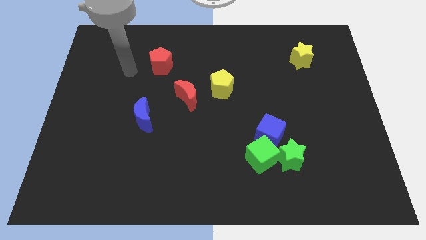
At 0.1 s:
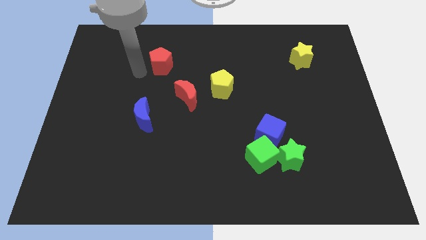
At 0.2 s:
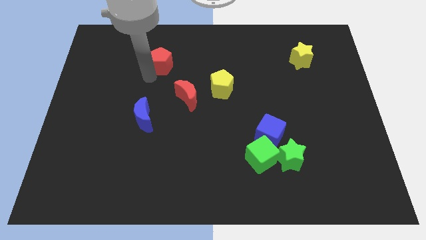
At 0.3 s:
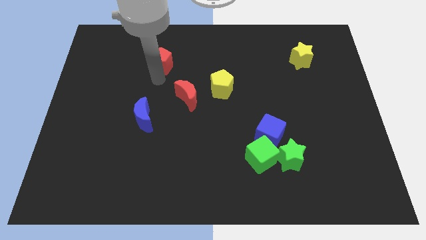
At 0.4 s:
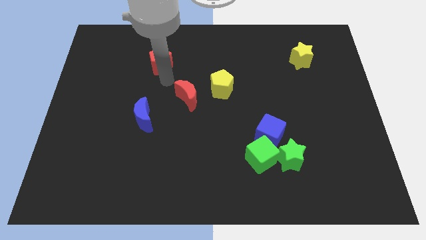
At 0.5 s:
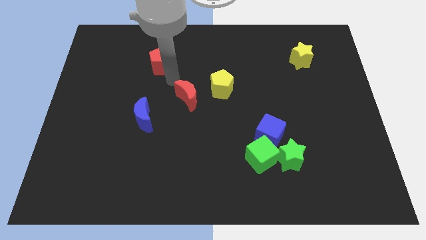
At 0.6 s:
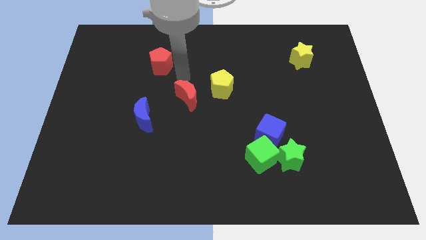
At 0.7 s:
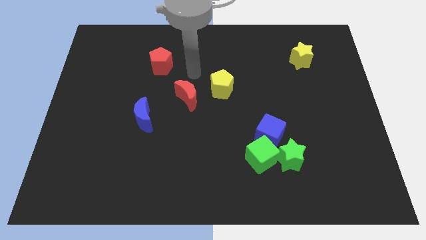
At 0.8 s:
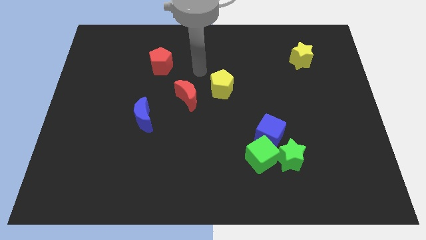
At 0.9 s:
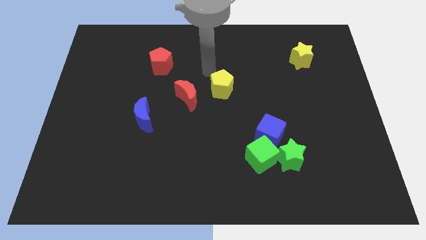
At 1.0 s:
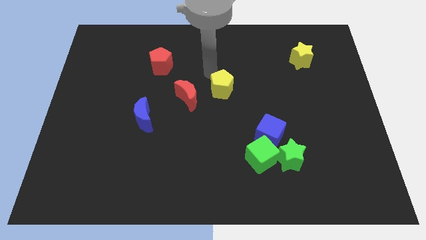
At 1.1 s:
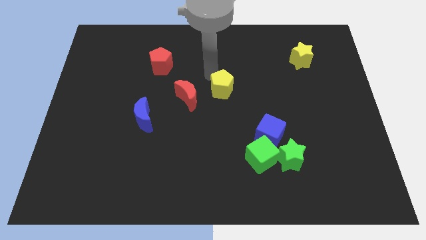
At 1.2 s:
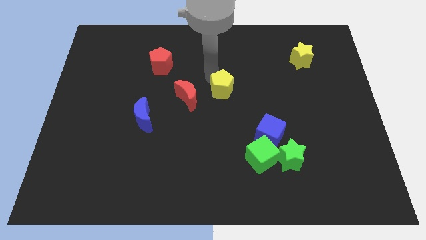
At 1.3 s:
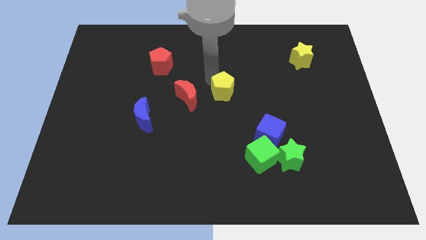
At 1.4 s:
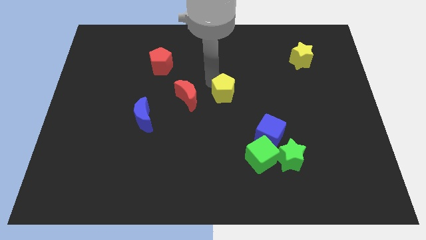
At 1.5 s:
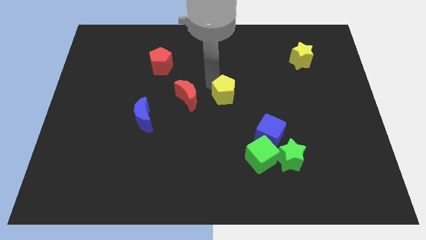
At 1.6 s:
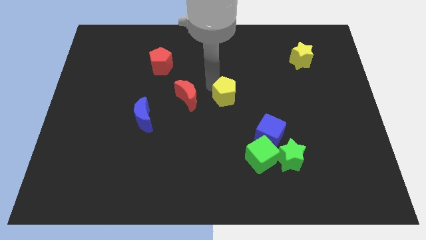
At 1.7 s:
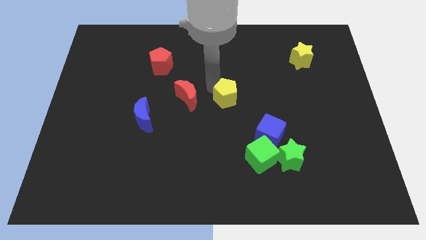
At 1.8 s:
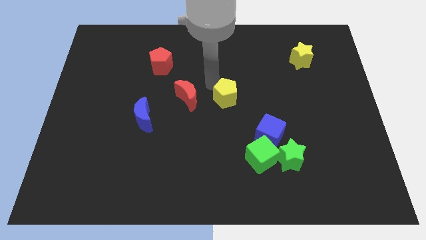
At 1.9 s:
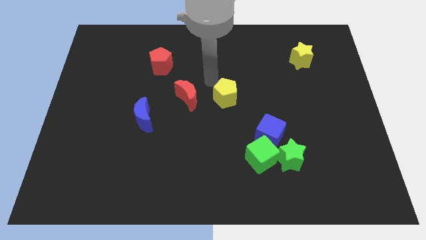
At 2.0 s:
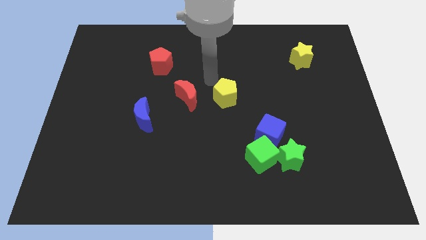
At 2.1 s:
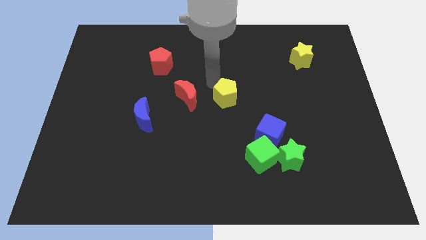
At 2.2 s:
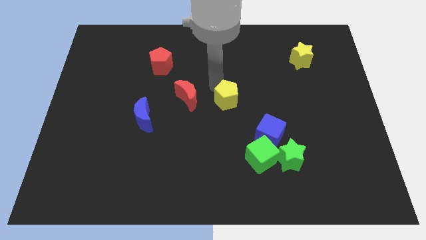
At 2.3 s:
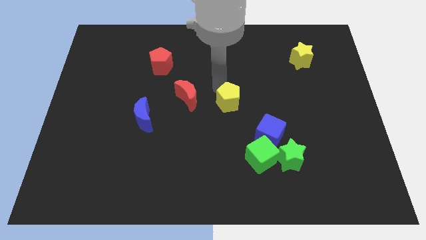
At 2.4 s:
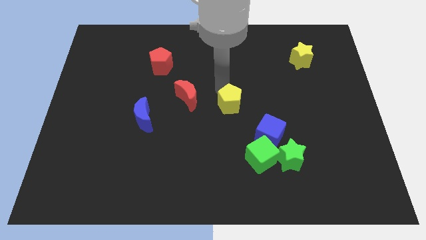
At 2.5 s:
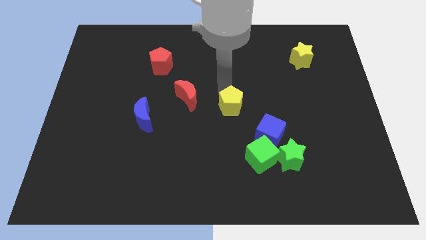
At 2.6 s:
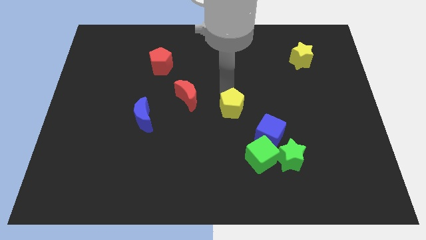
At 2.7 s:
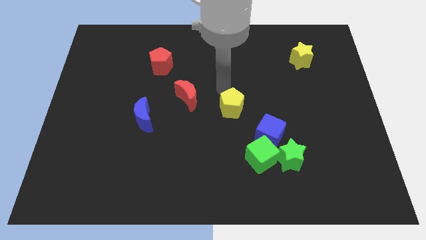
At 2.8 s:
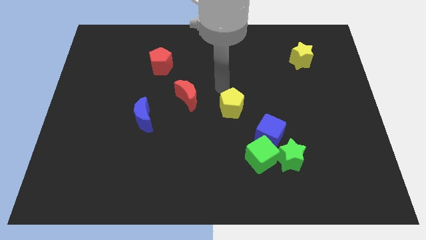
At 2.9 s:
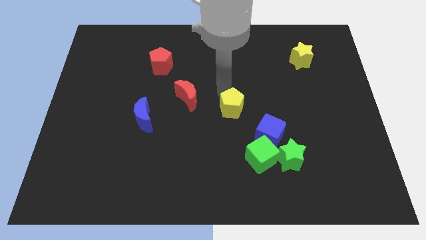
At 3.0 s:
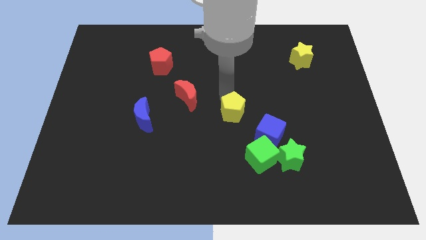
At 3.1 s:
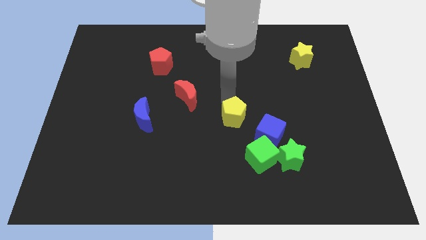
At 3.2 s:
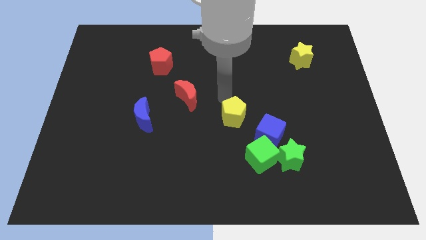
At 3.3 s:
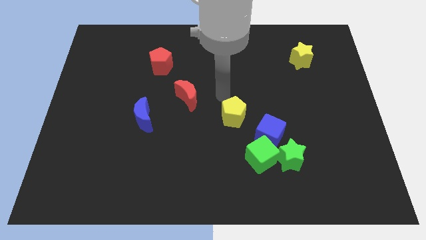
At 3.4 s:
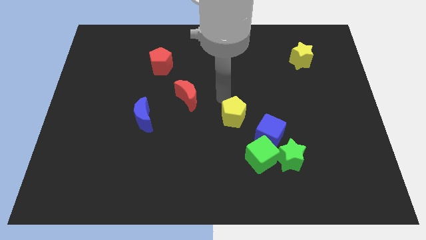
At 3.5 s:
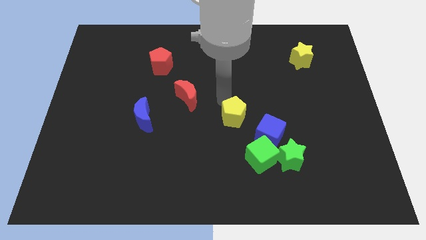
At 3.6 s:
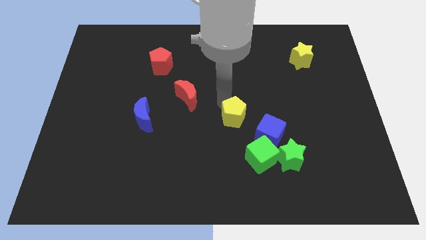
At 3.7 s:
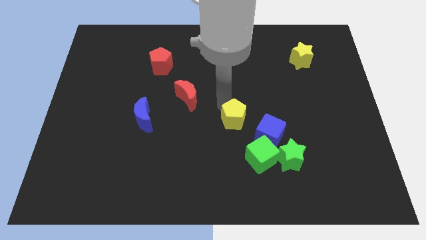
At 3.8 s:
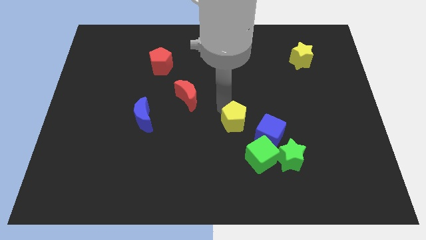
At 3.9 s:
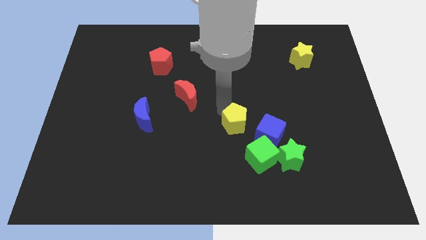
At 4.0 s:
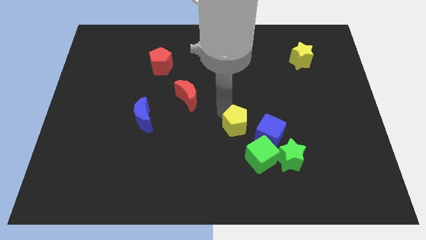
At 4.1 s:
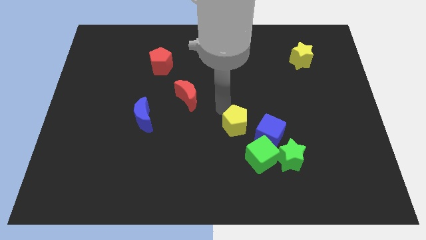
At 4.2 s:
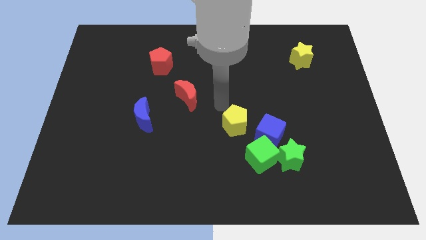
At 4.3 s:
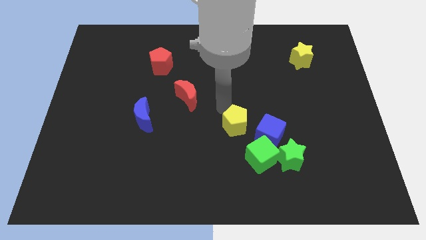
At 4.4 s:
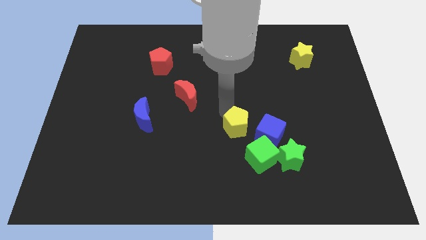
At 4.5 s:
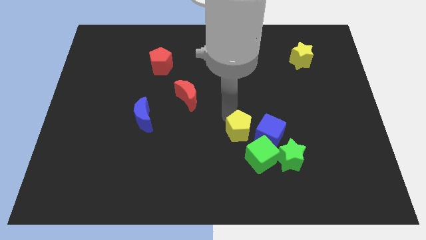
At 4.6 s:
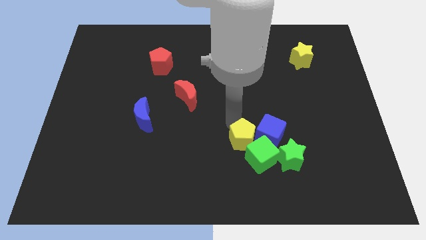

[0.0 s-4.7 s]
push the yellow pentagon towards the green cube

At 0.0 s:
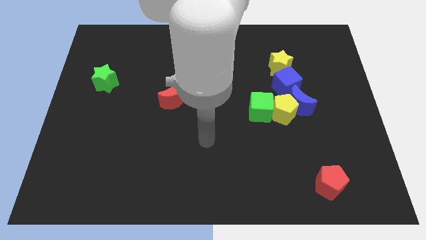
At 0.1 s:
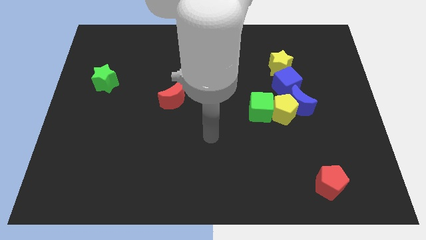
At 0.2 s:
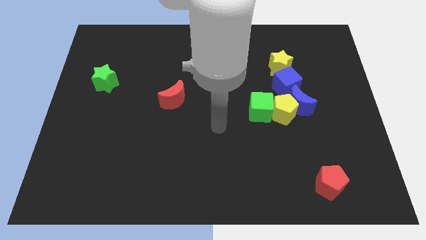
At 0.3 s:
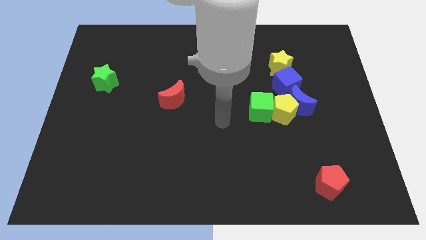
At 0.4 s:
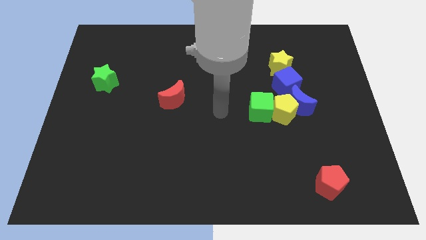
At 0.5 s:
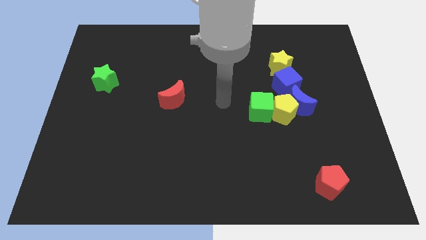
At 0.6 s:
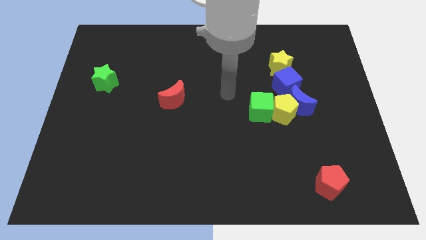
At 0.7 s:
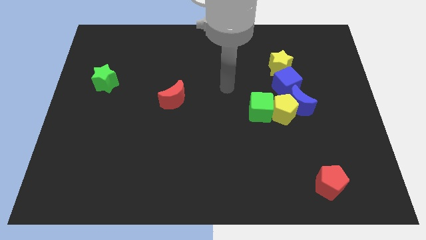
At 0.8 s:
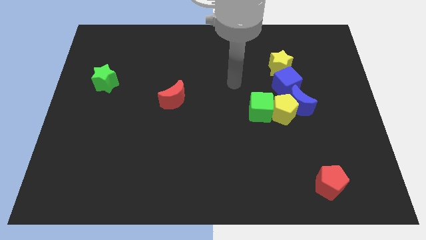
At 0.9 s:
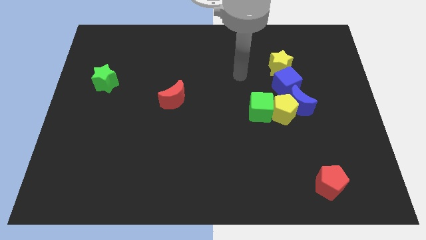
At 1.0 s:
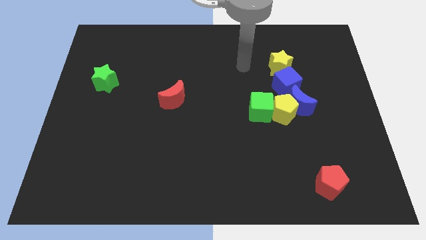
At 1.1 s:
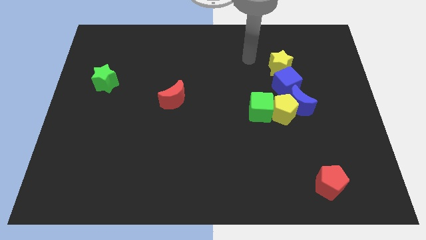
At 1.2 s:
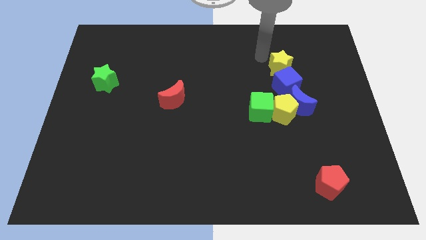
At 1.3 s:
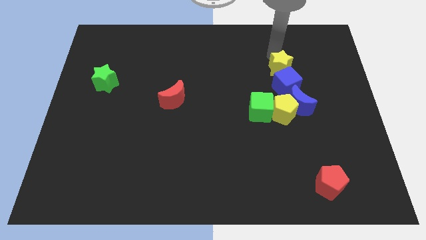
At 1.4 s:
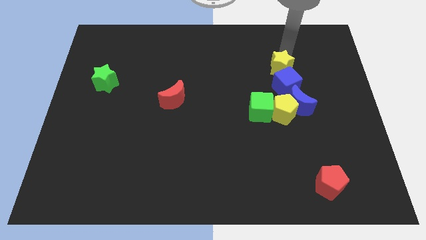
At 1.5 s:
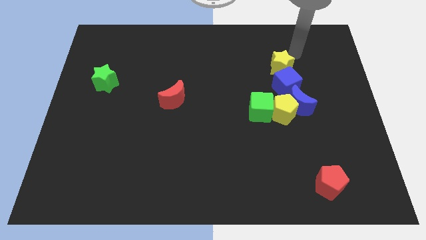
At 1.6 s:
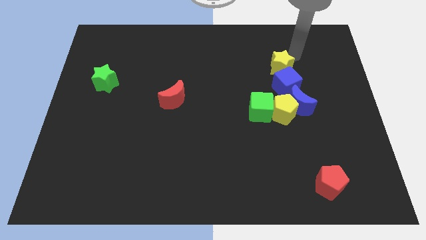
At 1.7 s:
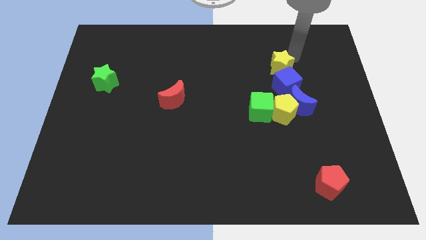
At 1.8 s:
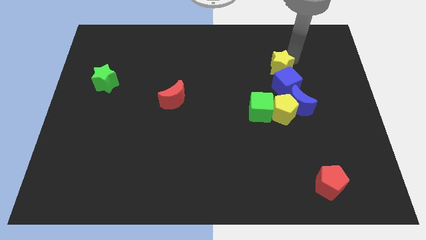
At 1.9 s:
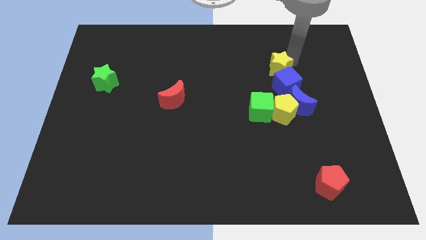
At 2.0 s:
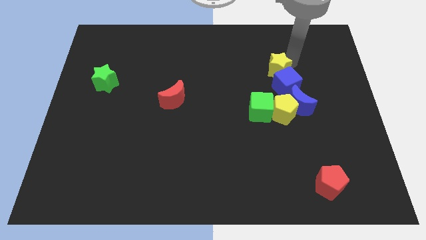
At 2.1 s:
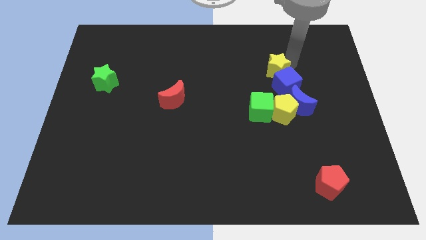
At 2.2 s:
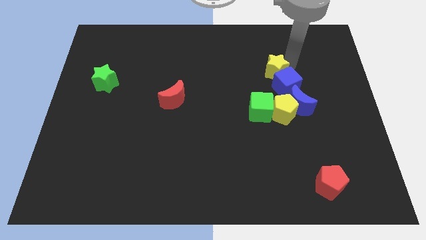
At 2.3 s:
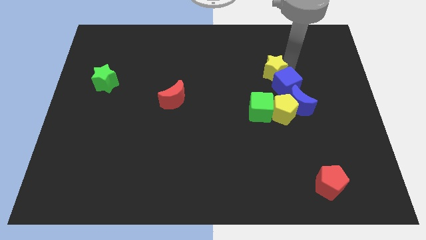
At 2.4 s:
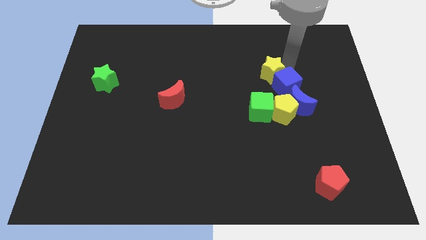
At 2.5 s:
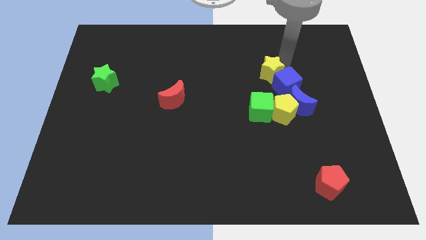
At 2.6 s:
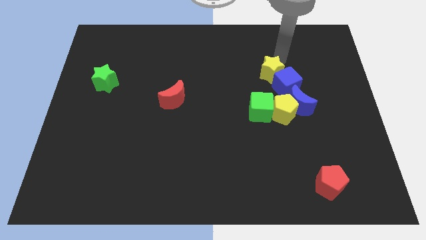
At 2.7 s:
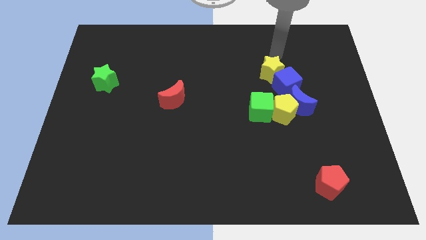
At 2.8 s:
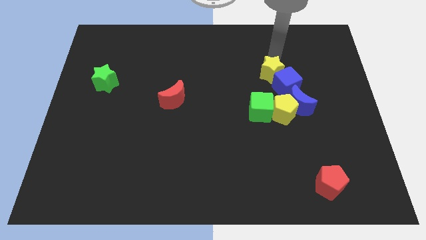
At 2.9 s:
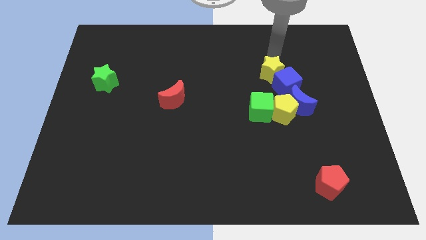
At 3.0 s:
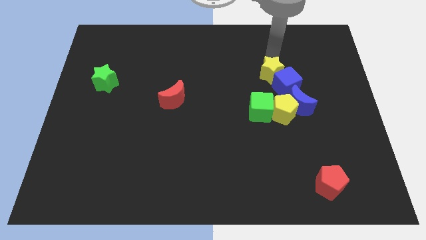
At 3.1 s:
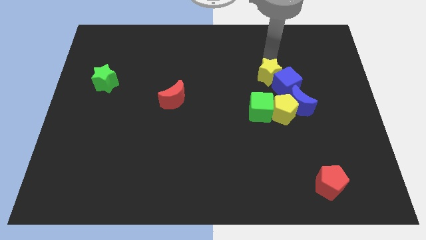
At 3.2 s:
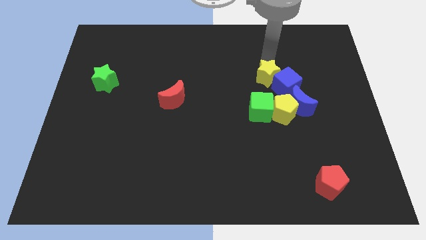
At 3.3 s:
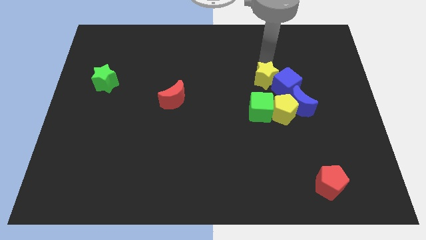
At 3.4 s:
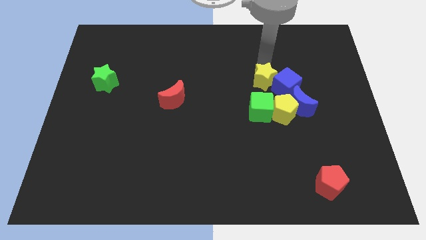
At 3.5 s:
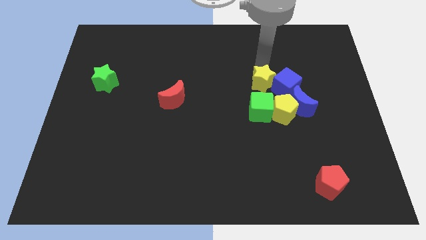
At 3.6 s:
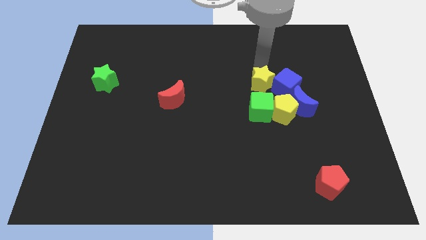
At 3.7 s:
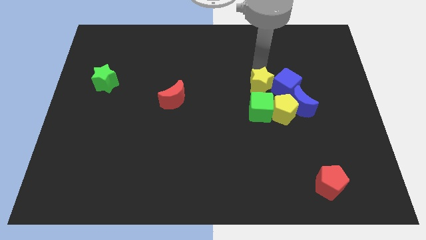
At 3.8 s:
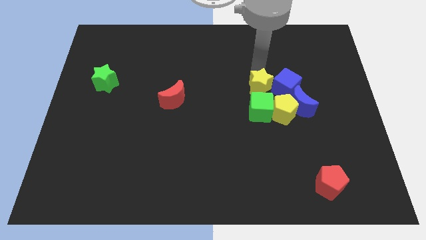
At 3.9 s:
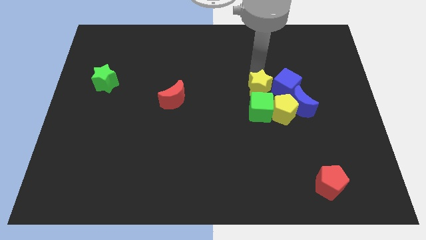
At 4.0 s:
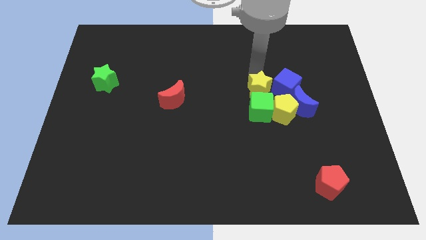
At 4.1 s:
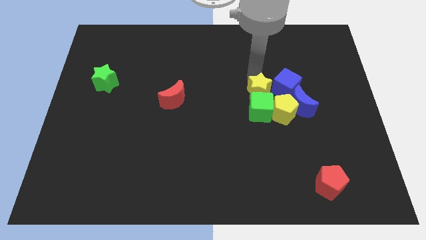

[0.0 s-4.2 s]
push the yellow star towards the green cube
